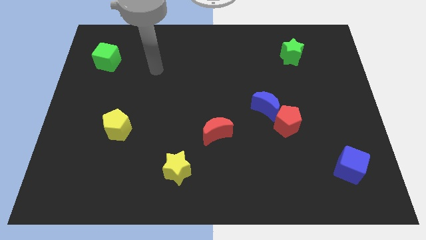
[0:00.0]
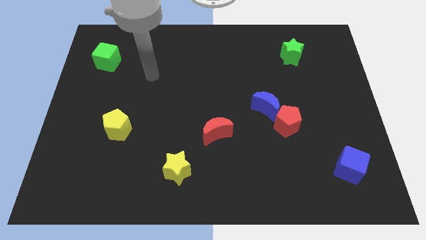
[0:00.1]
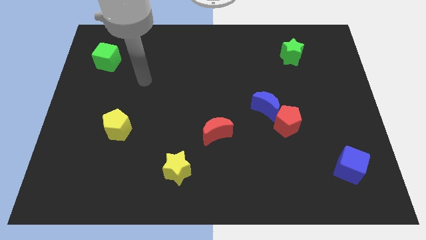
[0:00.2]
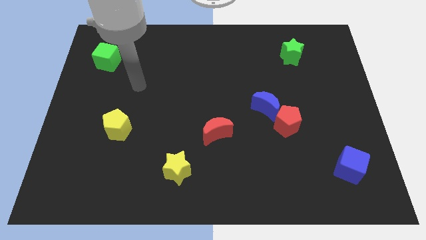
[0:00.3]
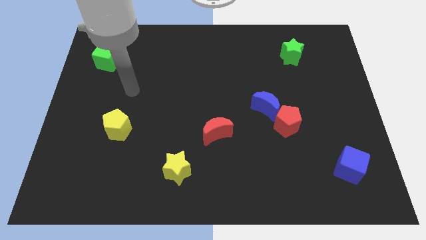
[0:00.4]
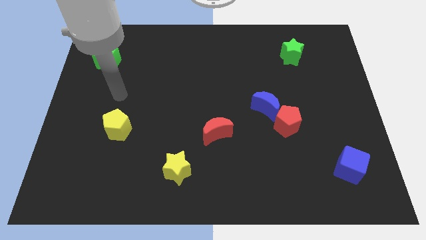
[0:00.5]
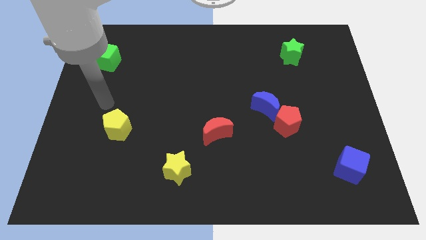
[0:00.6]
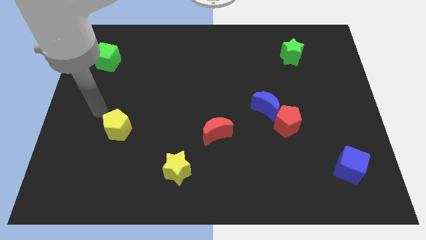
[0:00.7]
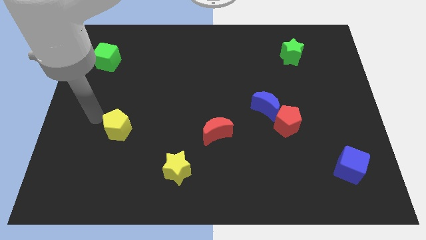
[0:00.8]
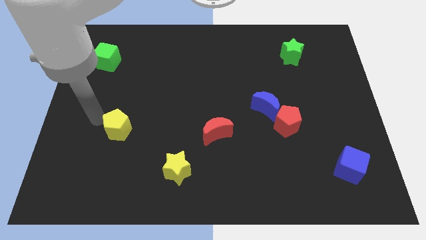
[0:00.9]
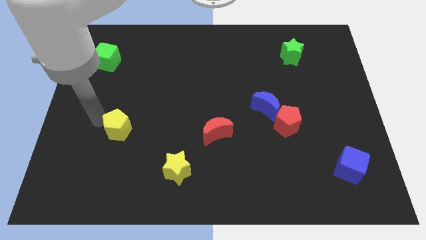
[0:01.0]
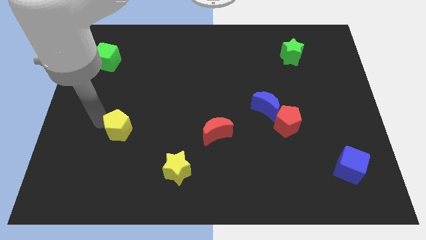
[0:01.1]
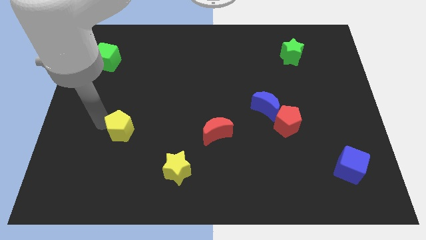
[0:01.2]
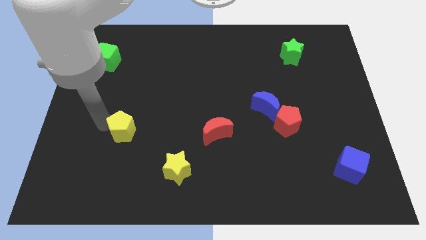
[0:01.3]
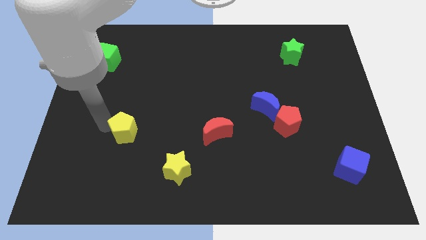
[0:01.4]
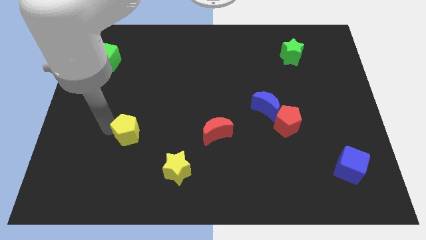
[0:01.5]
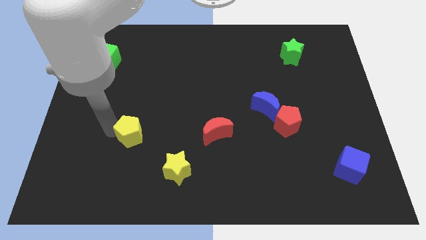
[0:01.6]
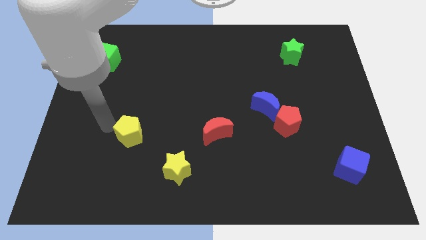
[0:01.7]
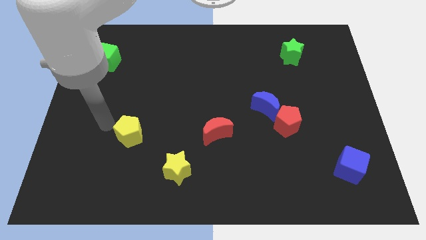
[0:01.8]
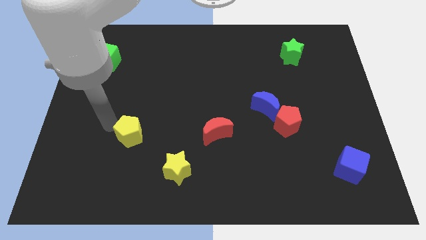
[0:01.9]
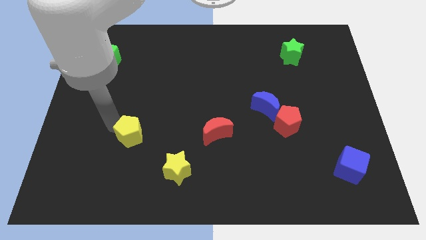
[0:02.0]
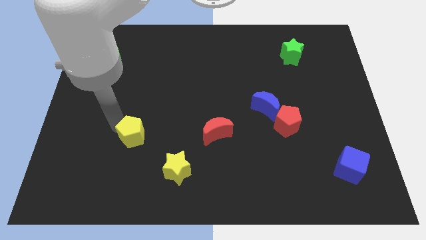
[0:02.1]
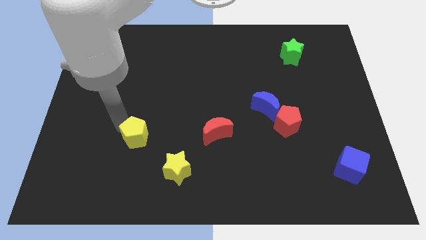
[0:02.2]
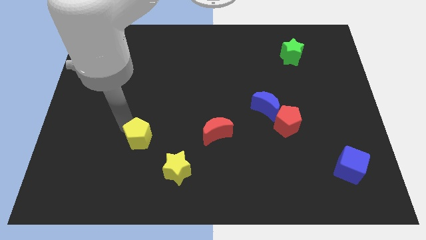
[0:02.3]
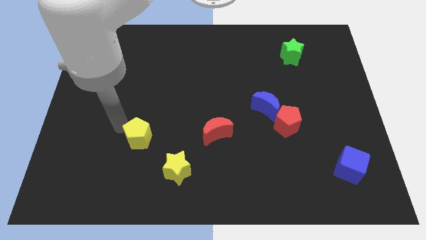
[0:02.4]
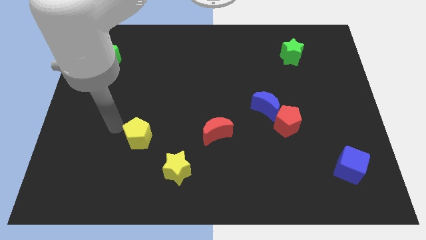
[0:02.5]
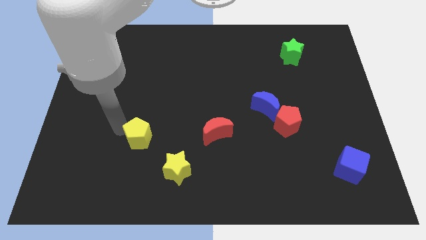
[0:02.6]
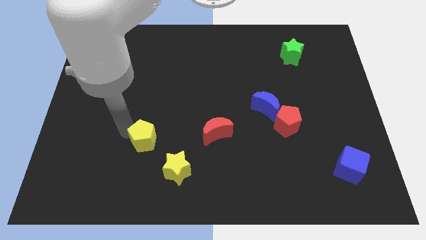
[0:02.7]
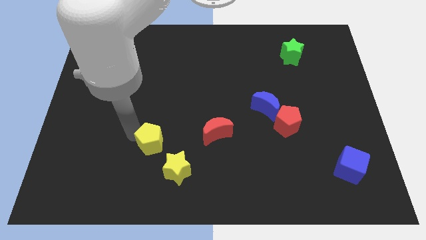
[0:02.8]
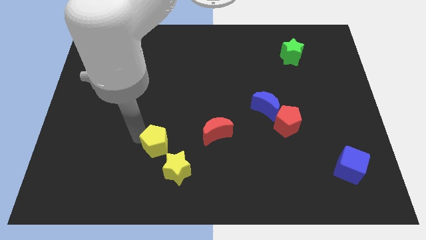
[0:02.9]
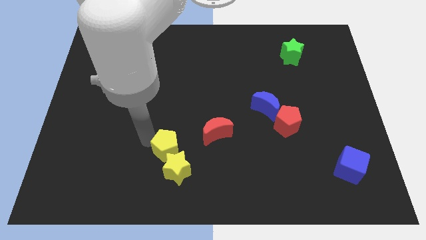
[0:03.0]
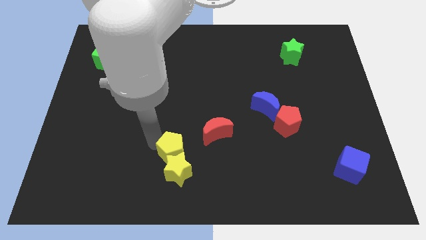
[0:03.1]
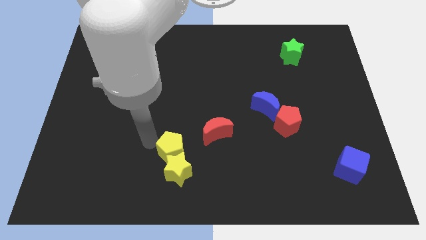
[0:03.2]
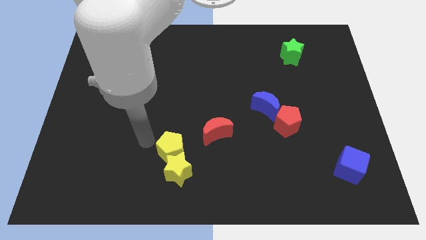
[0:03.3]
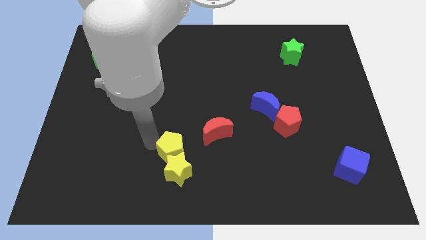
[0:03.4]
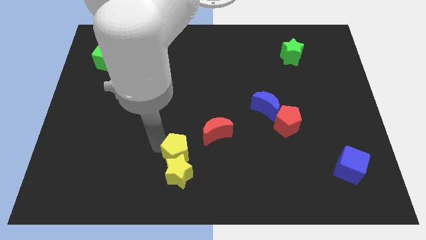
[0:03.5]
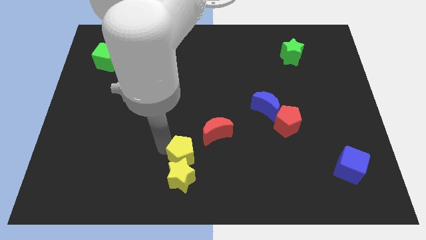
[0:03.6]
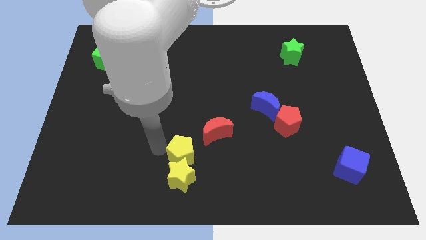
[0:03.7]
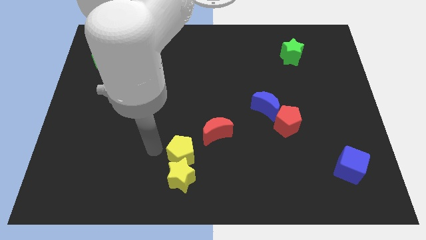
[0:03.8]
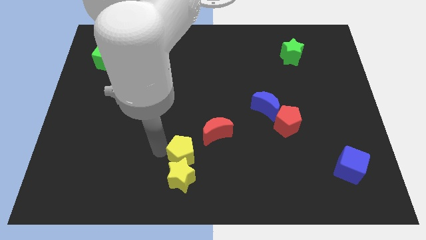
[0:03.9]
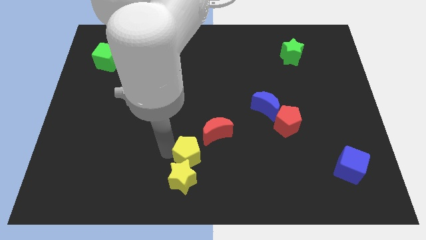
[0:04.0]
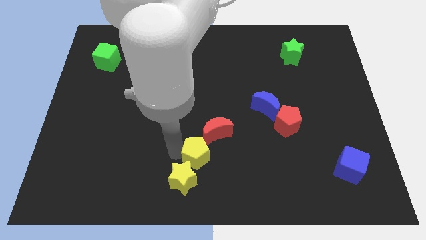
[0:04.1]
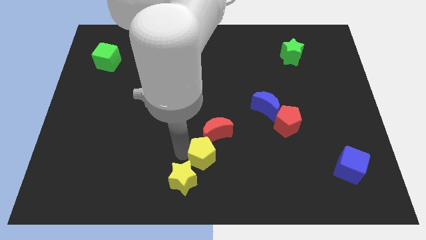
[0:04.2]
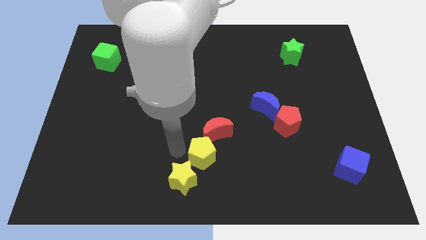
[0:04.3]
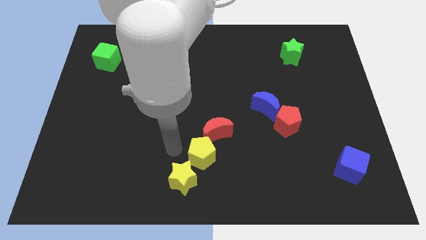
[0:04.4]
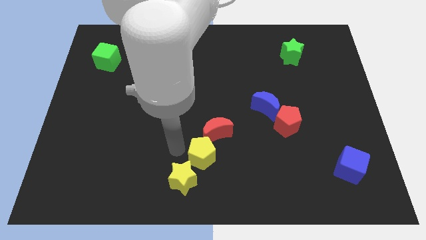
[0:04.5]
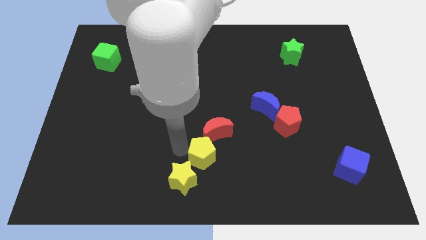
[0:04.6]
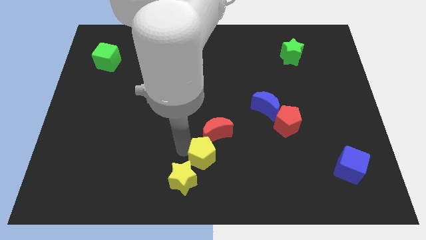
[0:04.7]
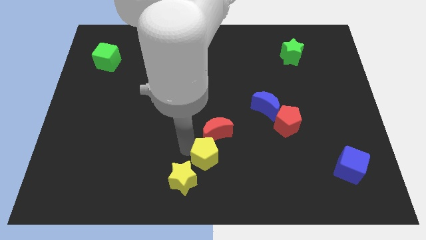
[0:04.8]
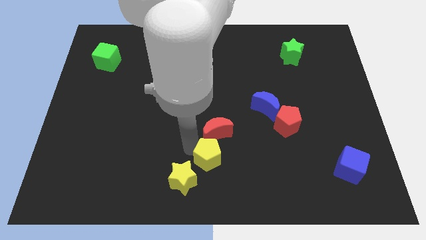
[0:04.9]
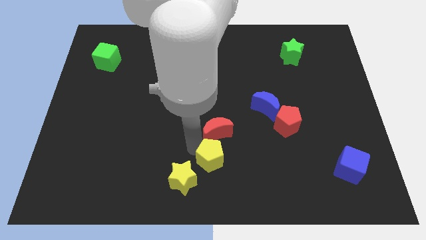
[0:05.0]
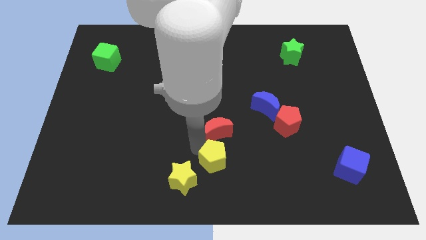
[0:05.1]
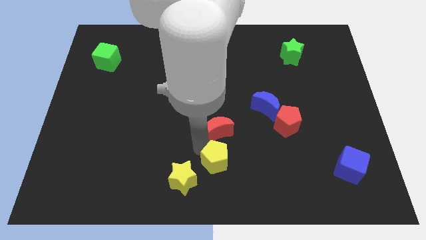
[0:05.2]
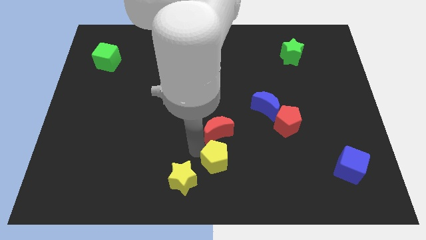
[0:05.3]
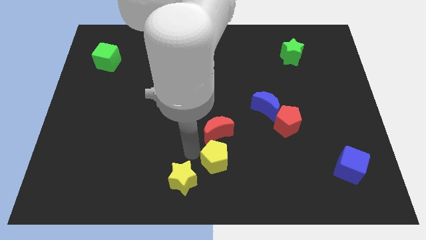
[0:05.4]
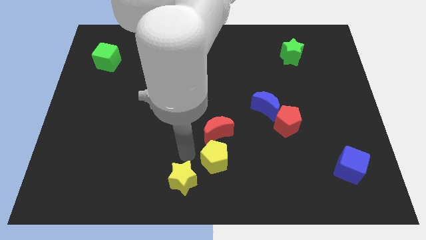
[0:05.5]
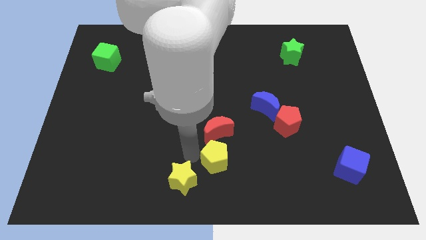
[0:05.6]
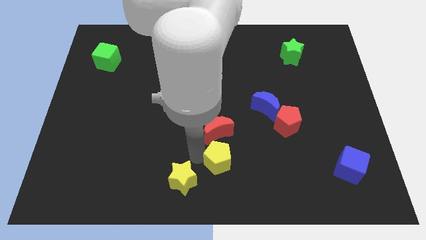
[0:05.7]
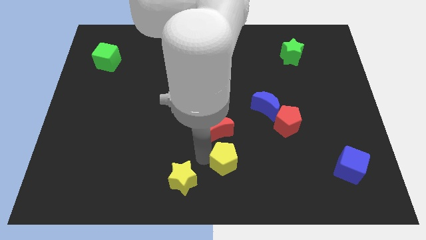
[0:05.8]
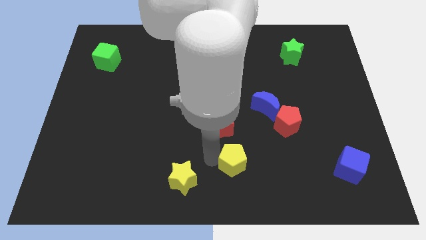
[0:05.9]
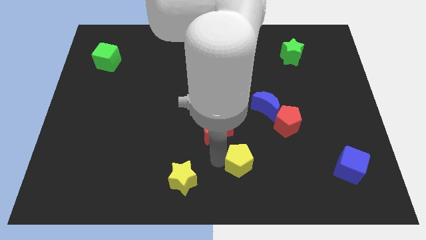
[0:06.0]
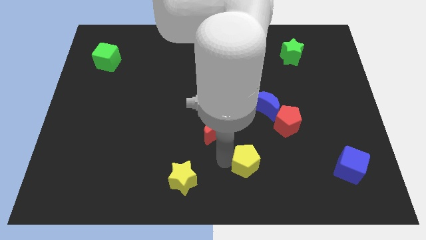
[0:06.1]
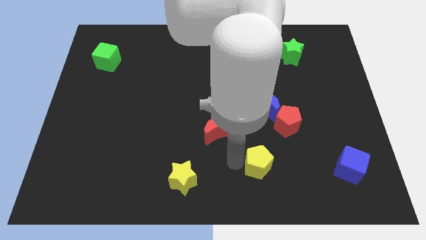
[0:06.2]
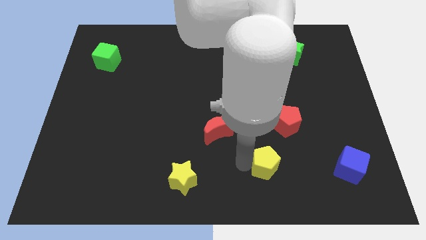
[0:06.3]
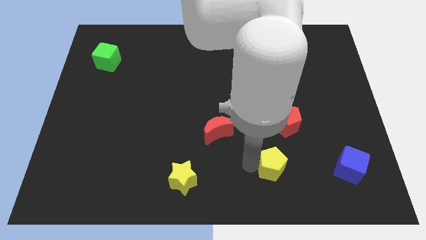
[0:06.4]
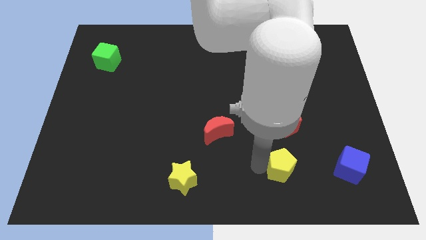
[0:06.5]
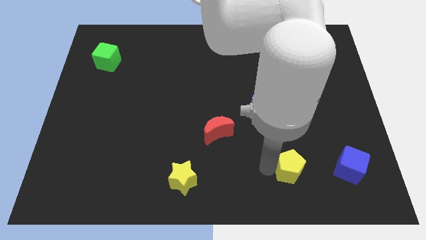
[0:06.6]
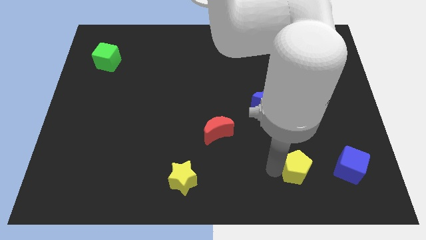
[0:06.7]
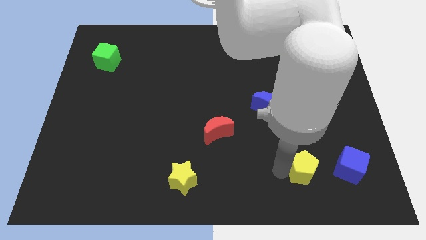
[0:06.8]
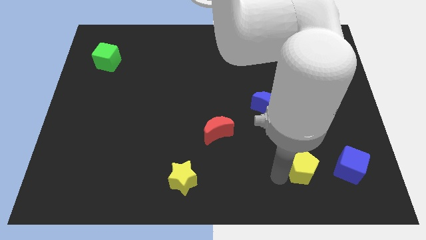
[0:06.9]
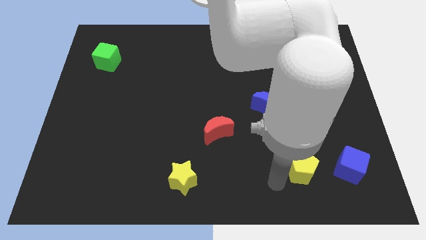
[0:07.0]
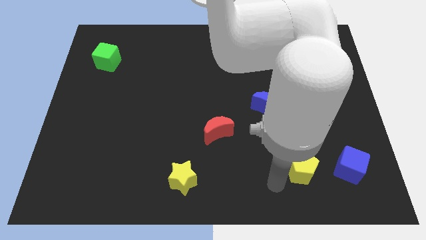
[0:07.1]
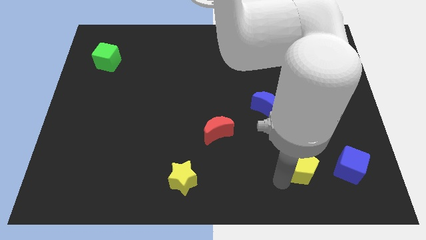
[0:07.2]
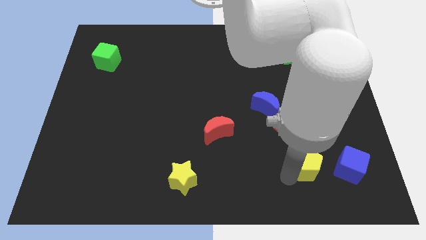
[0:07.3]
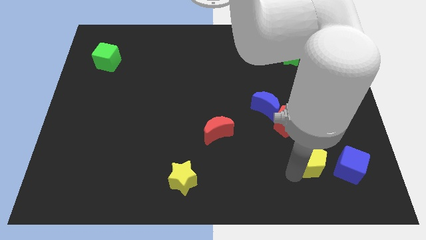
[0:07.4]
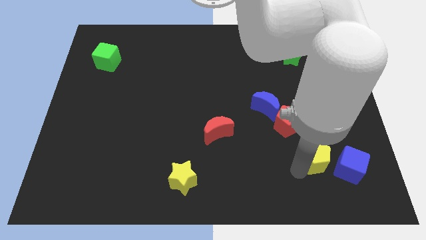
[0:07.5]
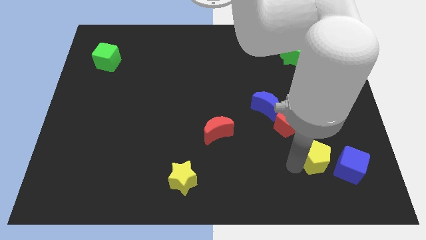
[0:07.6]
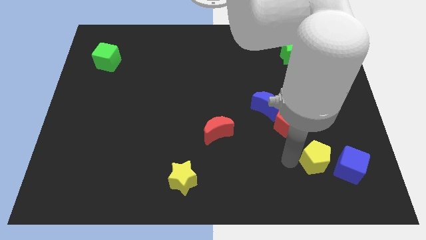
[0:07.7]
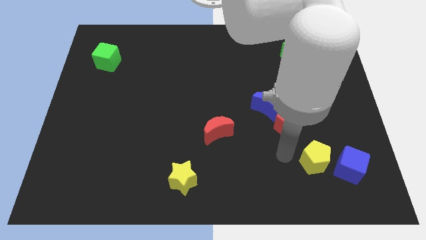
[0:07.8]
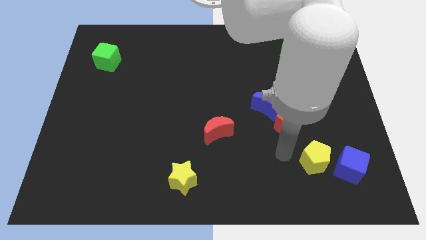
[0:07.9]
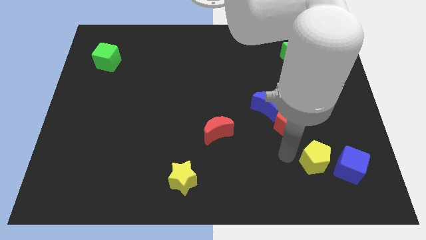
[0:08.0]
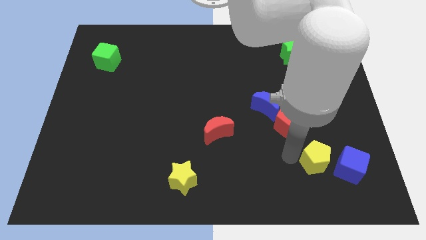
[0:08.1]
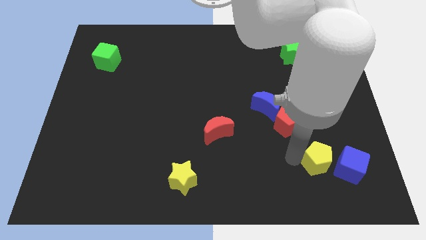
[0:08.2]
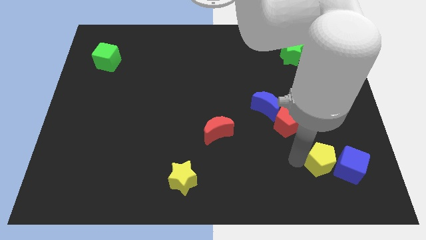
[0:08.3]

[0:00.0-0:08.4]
push the yellow pentagon close to the blue cube
